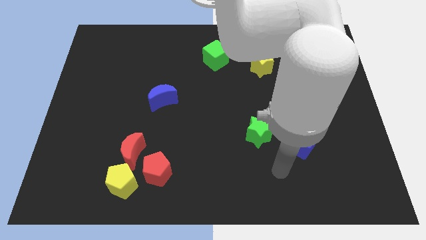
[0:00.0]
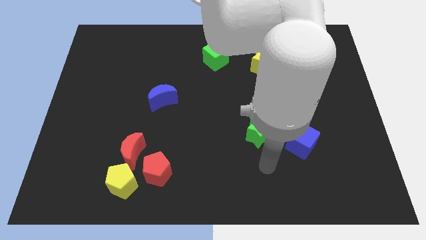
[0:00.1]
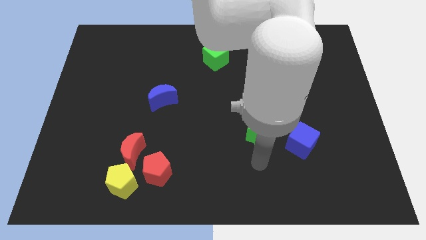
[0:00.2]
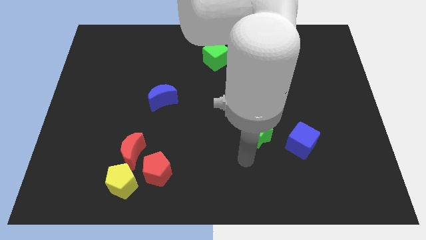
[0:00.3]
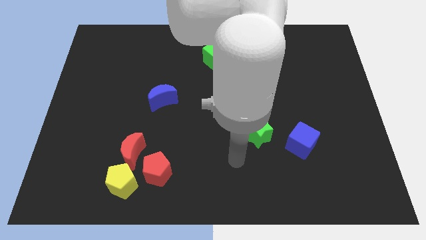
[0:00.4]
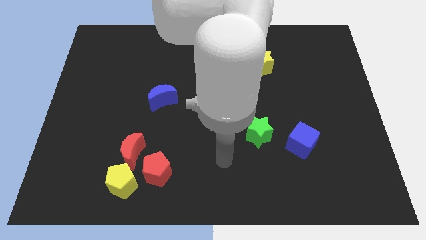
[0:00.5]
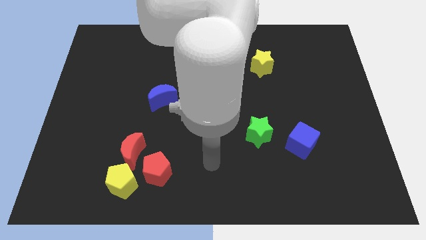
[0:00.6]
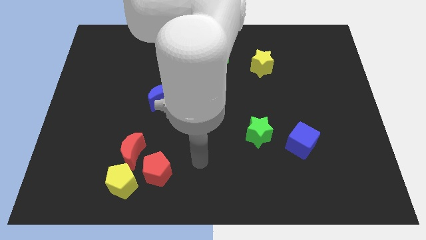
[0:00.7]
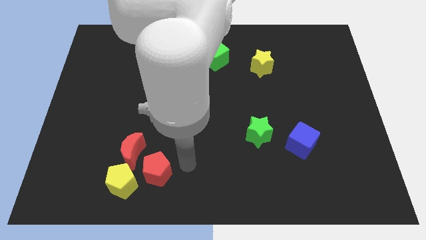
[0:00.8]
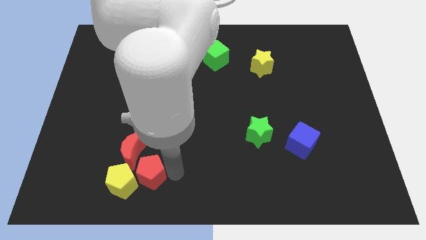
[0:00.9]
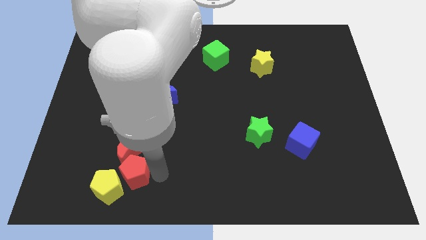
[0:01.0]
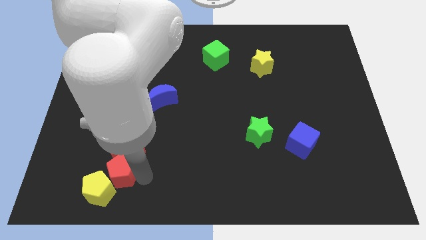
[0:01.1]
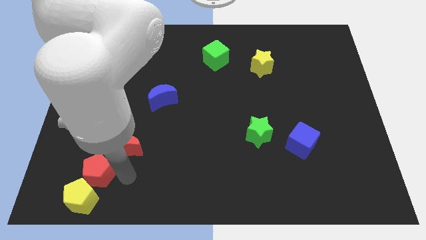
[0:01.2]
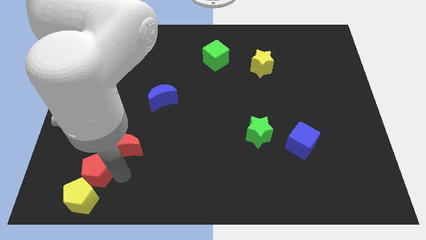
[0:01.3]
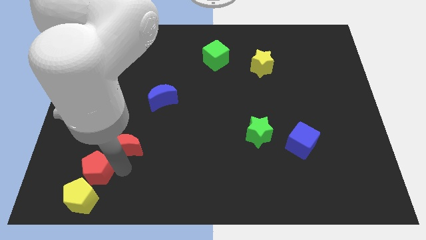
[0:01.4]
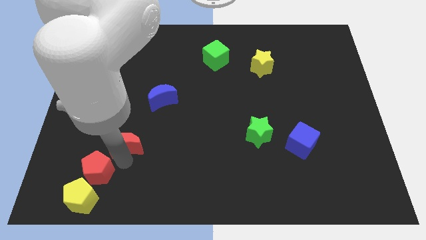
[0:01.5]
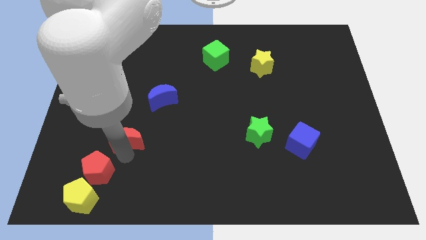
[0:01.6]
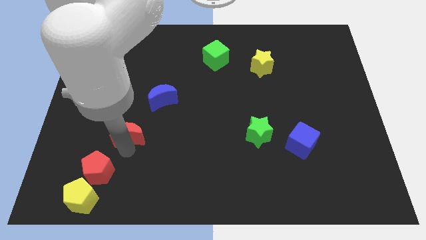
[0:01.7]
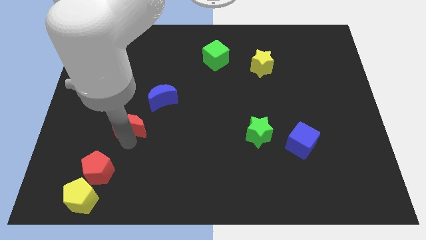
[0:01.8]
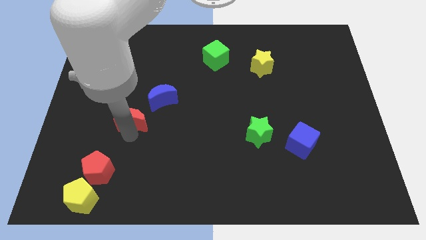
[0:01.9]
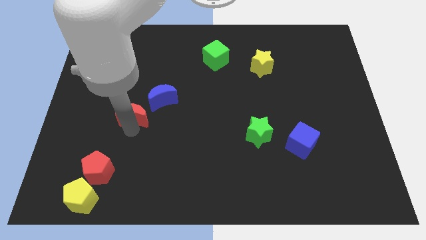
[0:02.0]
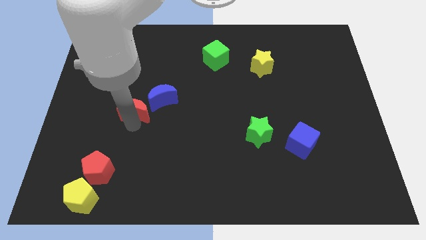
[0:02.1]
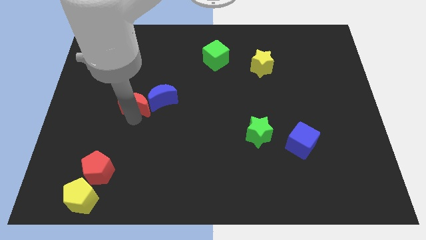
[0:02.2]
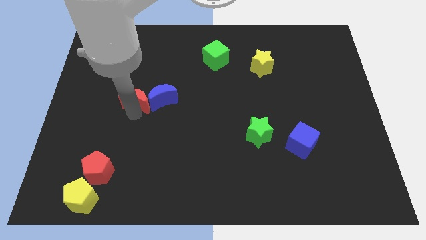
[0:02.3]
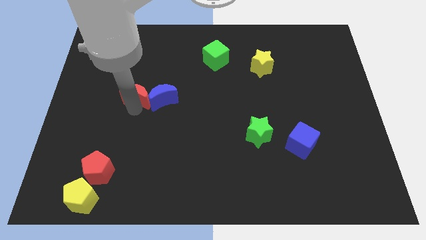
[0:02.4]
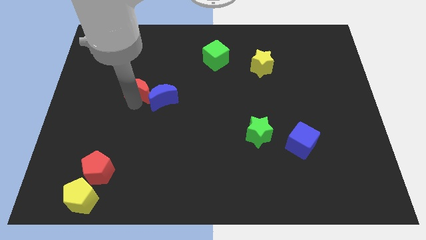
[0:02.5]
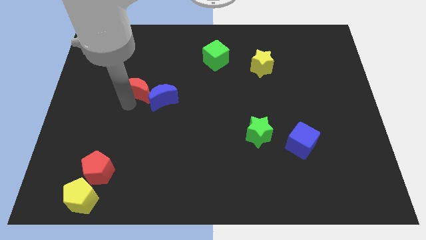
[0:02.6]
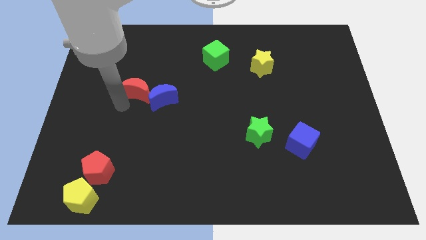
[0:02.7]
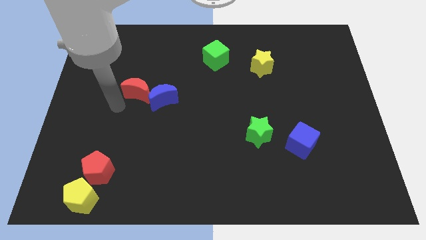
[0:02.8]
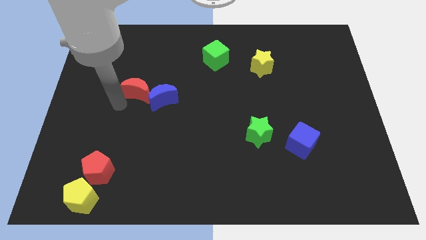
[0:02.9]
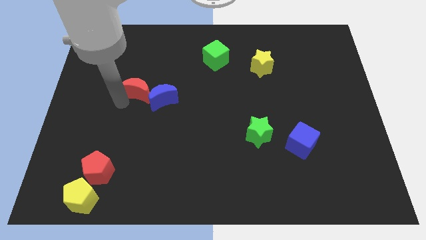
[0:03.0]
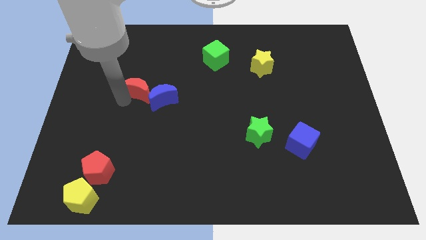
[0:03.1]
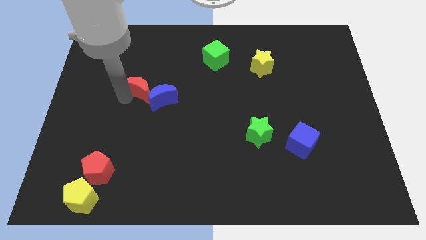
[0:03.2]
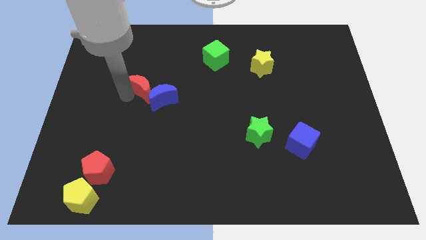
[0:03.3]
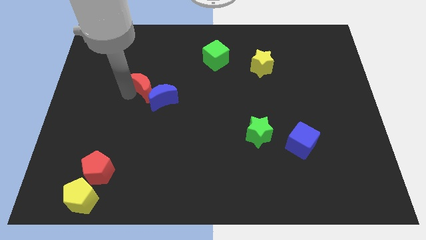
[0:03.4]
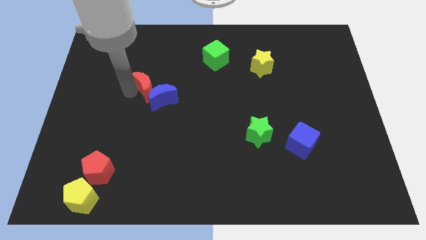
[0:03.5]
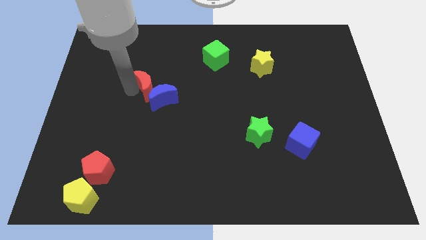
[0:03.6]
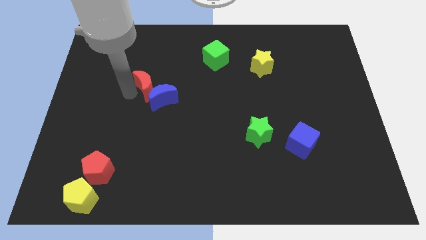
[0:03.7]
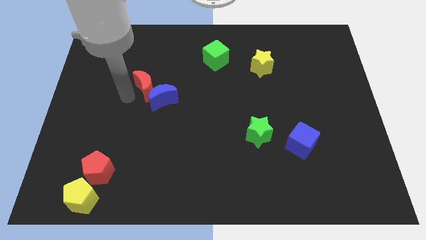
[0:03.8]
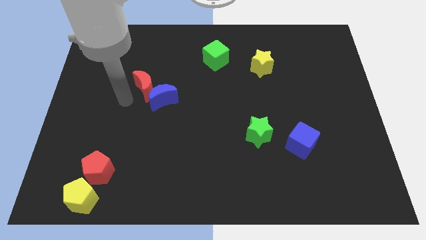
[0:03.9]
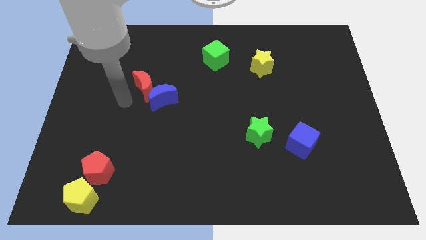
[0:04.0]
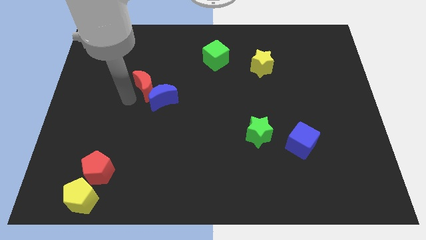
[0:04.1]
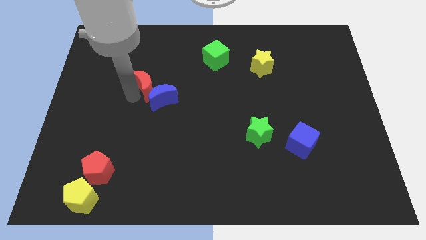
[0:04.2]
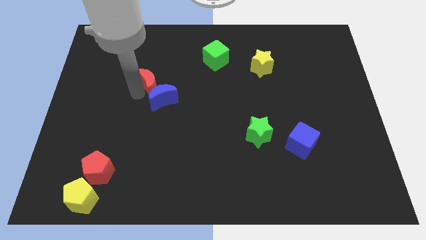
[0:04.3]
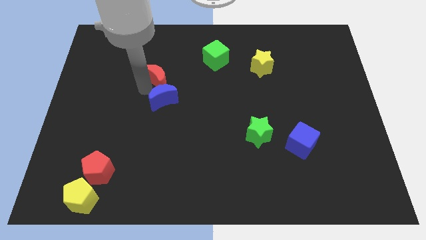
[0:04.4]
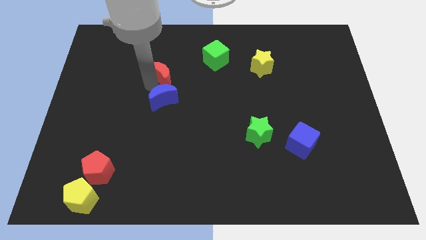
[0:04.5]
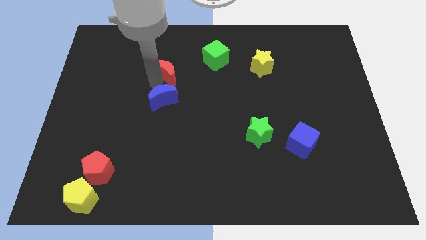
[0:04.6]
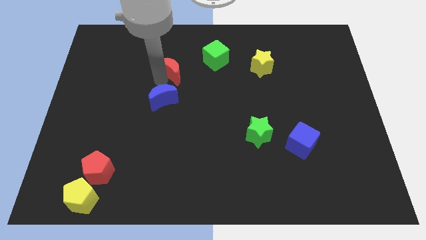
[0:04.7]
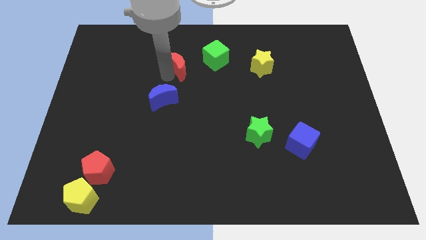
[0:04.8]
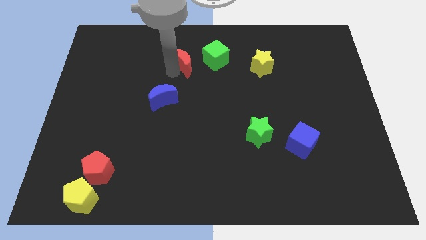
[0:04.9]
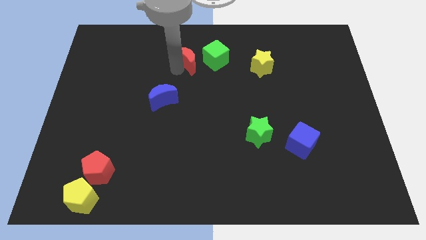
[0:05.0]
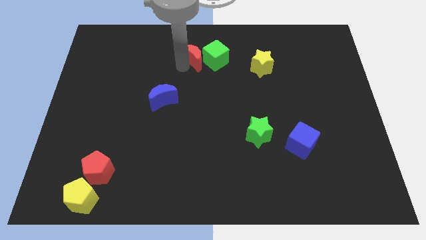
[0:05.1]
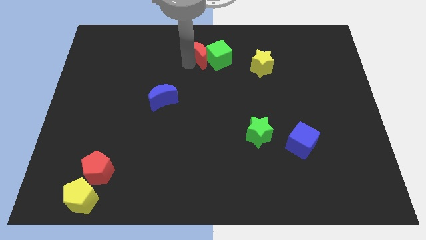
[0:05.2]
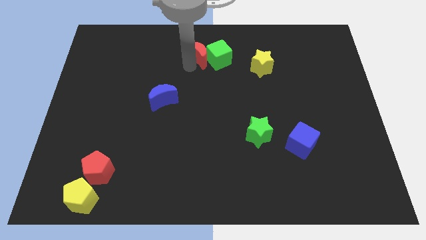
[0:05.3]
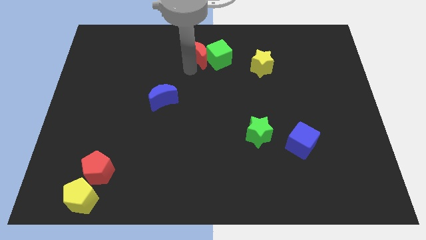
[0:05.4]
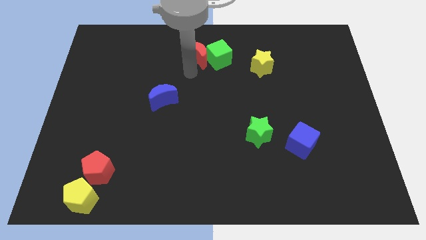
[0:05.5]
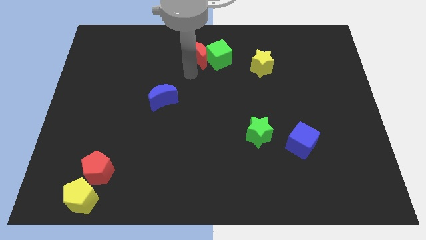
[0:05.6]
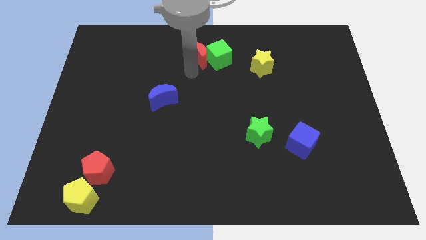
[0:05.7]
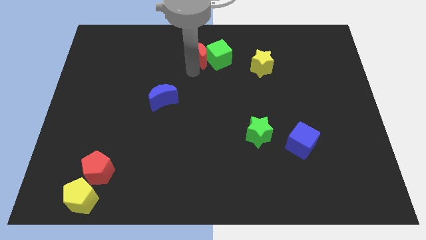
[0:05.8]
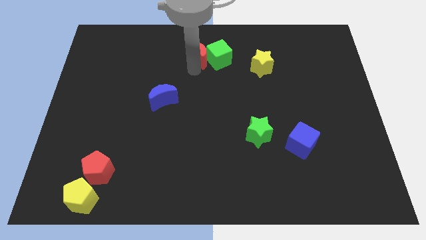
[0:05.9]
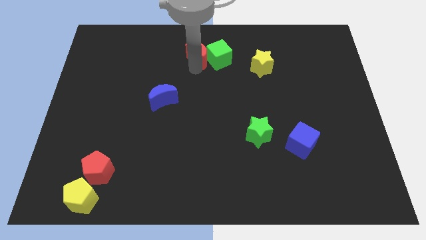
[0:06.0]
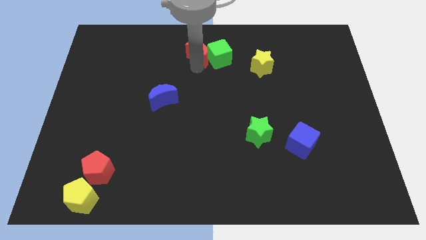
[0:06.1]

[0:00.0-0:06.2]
push the red moon to the top side

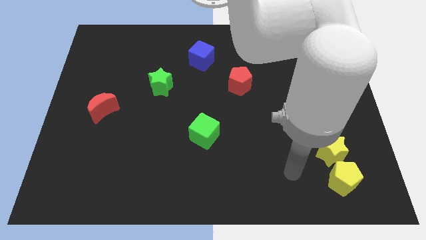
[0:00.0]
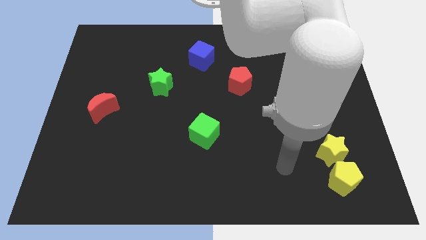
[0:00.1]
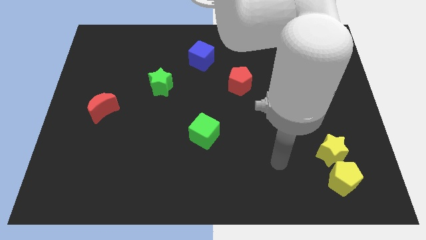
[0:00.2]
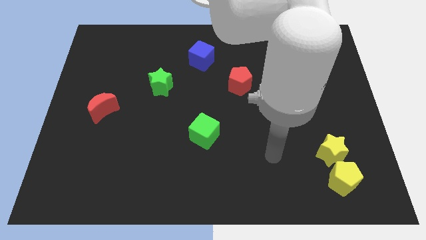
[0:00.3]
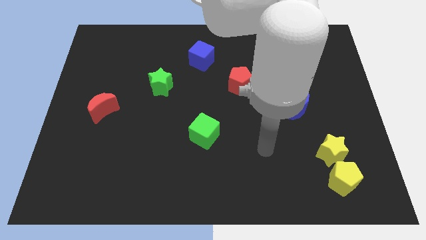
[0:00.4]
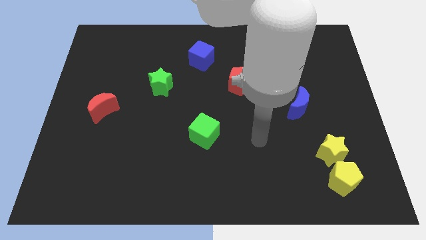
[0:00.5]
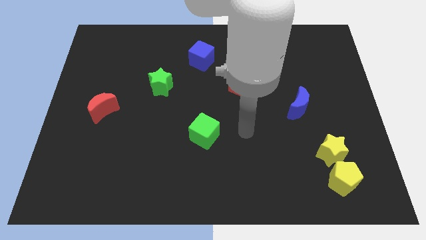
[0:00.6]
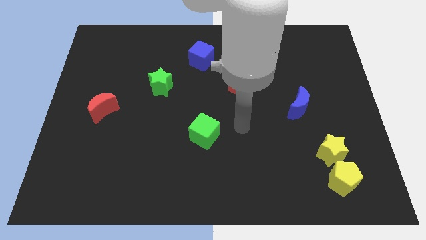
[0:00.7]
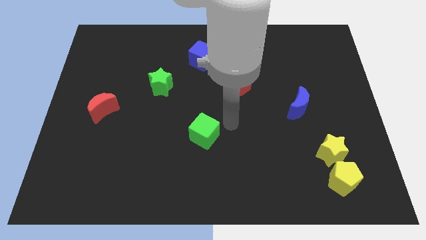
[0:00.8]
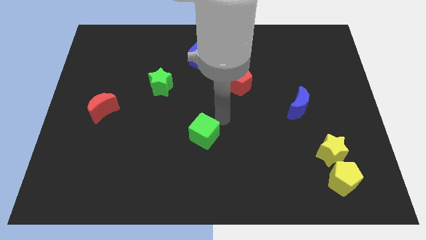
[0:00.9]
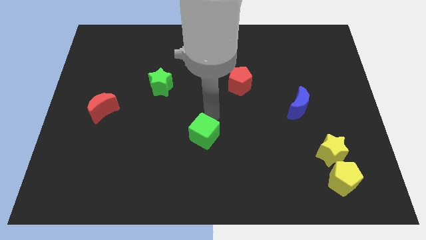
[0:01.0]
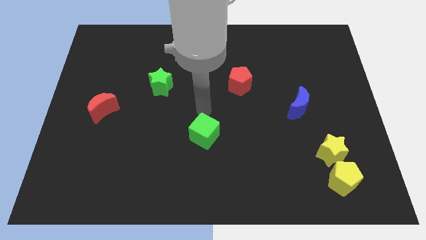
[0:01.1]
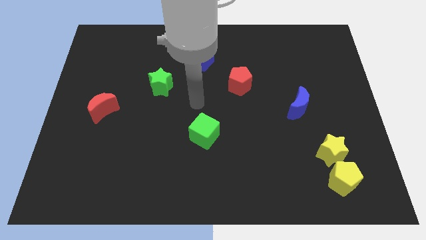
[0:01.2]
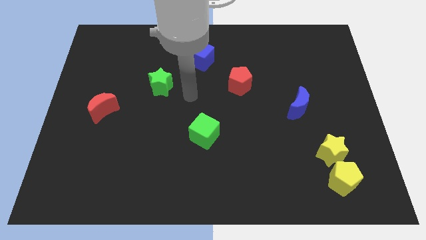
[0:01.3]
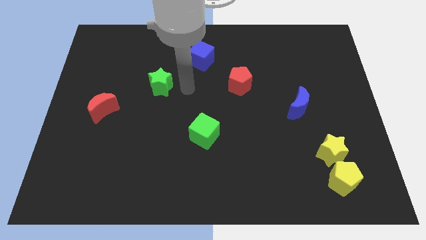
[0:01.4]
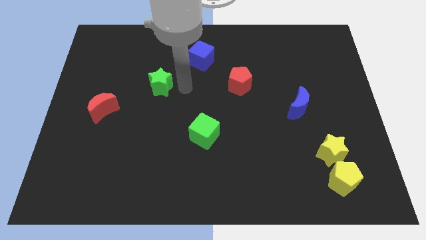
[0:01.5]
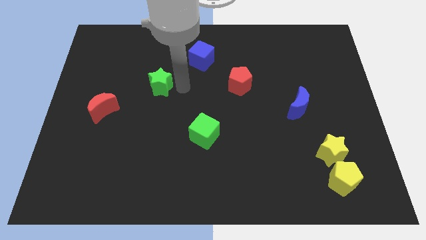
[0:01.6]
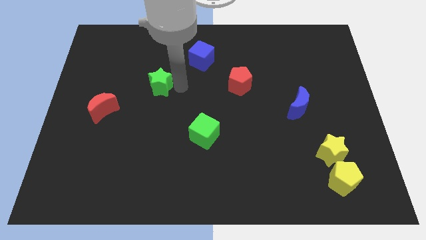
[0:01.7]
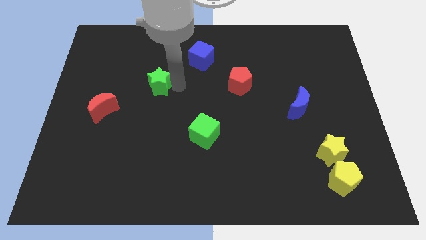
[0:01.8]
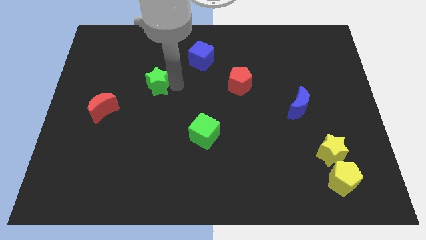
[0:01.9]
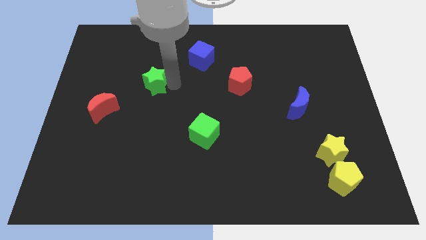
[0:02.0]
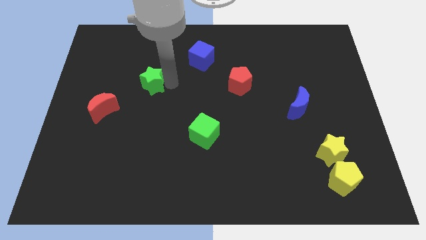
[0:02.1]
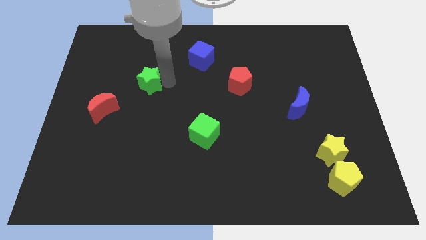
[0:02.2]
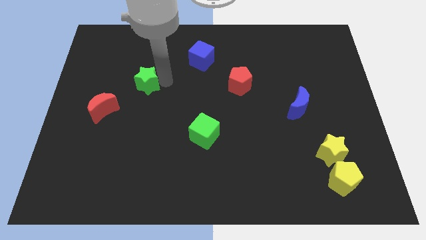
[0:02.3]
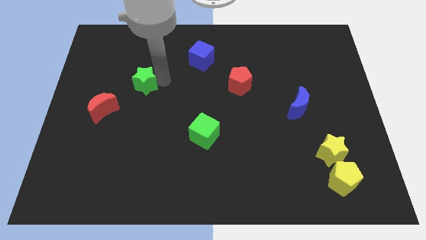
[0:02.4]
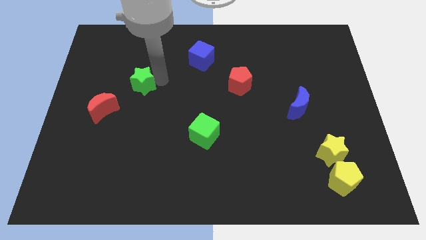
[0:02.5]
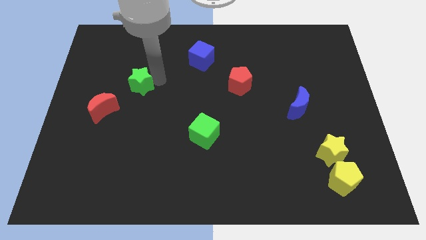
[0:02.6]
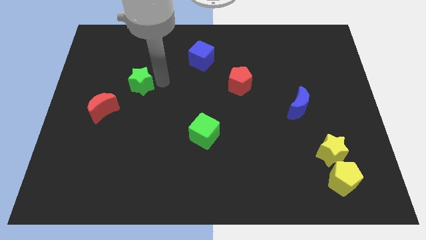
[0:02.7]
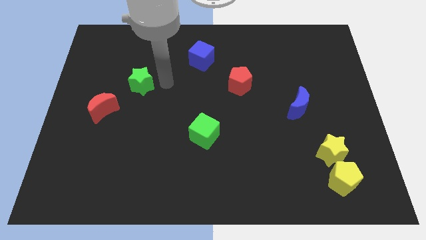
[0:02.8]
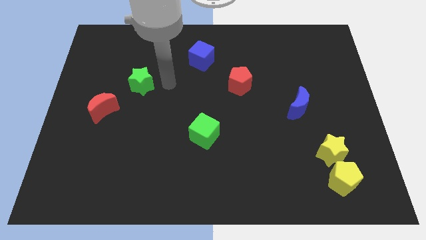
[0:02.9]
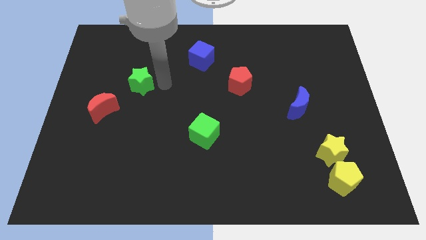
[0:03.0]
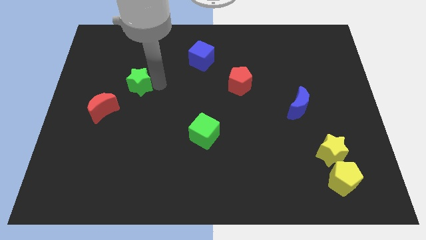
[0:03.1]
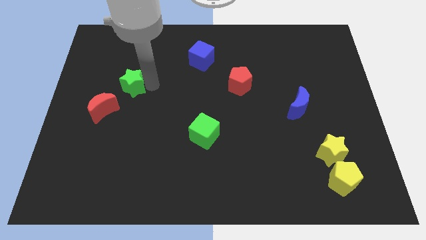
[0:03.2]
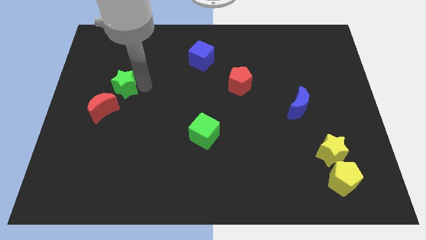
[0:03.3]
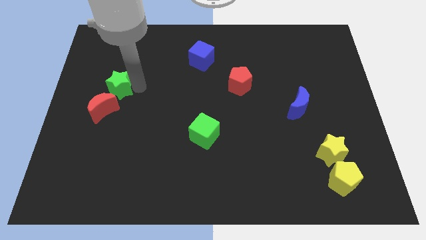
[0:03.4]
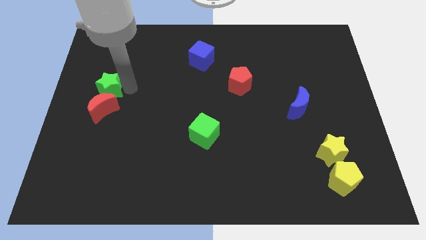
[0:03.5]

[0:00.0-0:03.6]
slide the green star to the left side
